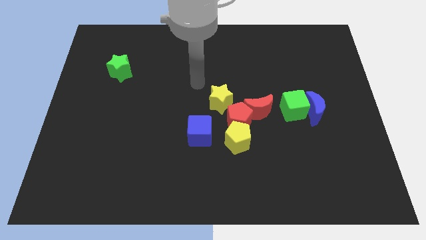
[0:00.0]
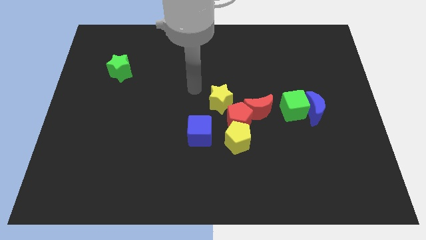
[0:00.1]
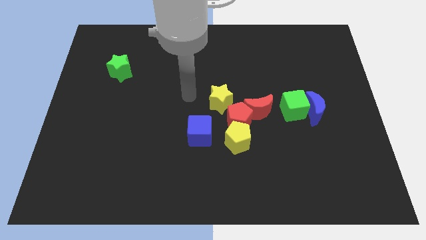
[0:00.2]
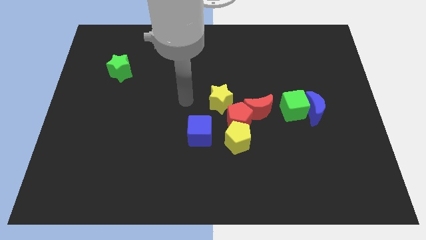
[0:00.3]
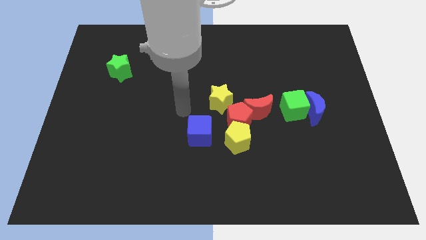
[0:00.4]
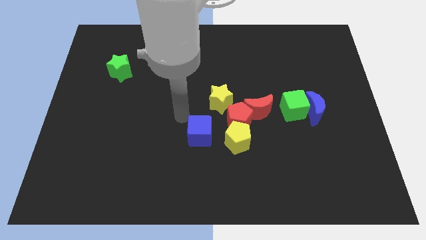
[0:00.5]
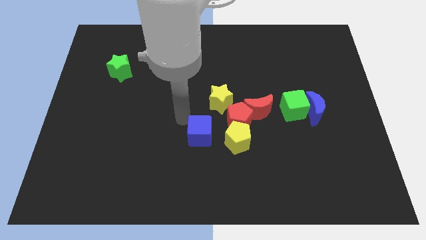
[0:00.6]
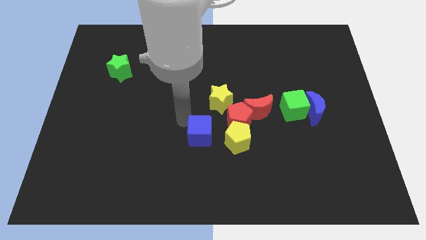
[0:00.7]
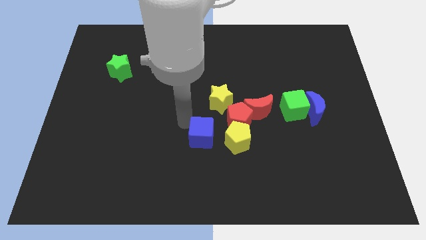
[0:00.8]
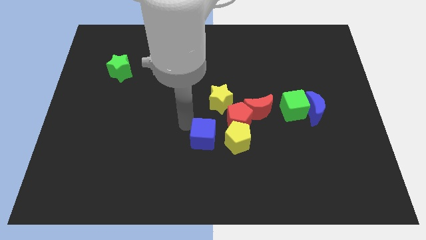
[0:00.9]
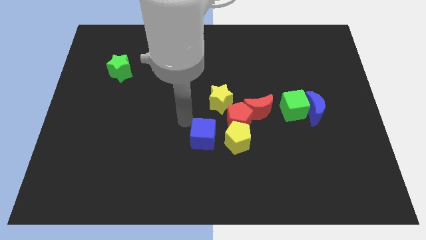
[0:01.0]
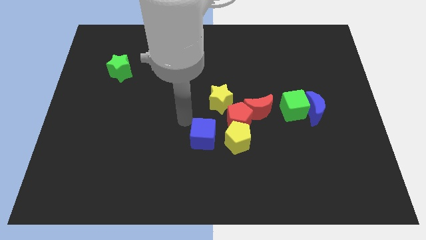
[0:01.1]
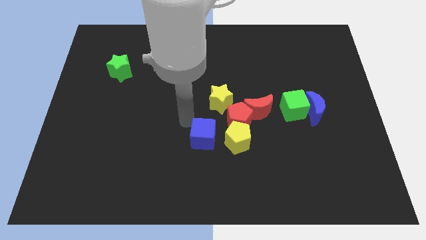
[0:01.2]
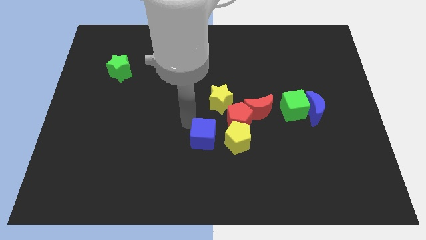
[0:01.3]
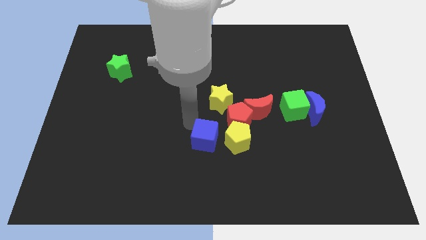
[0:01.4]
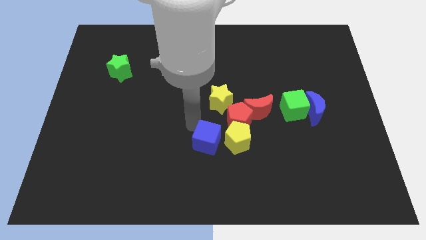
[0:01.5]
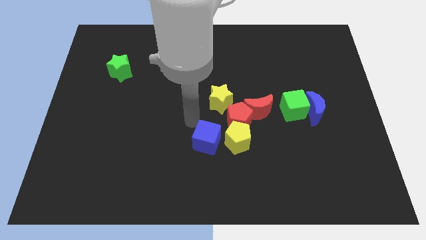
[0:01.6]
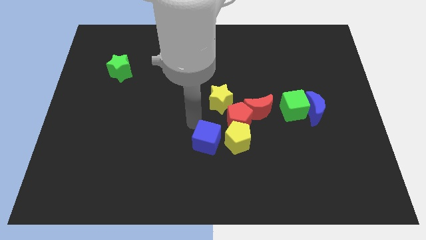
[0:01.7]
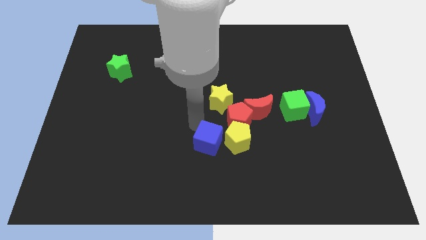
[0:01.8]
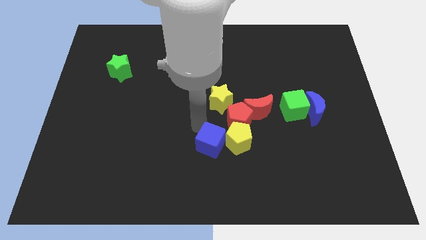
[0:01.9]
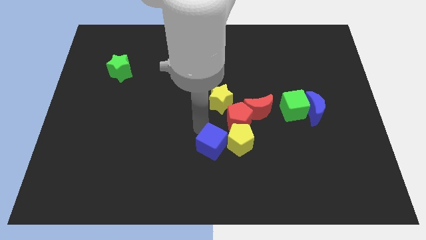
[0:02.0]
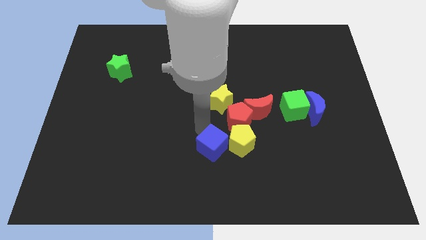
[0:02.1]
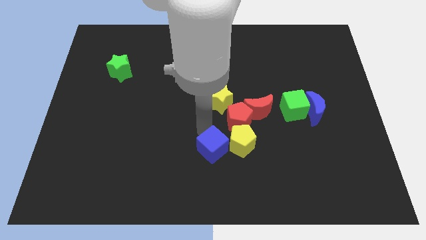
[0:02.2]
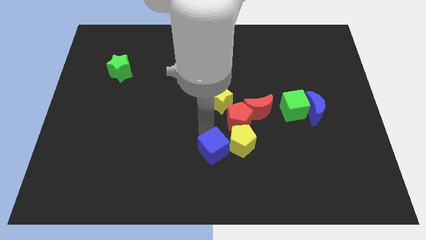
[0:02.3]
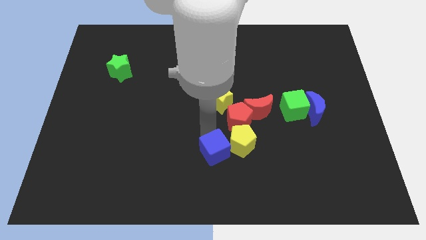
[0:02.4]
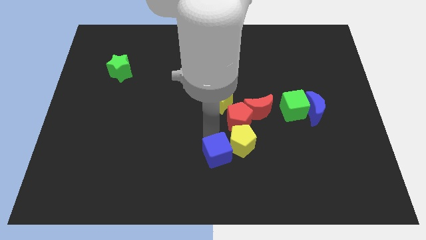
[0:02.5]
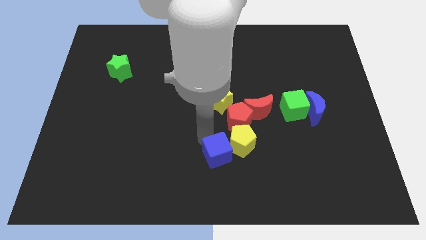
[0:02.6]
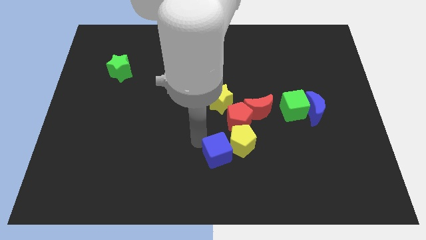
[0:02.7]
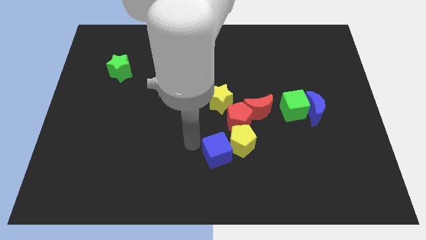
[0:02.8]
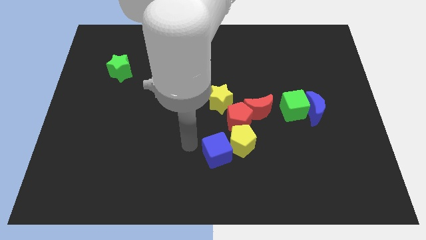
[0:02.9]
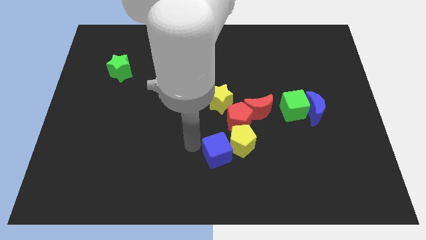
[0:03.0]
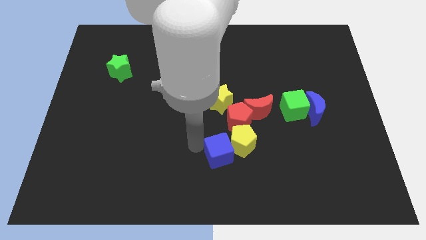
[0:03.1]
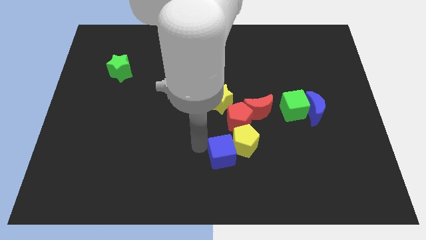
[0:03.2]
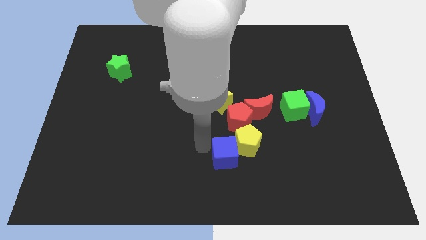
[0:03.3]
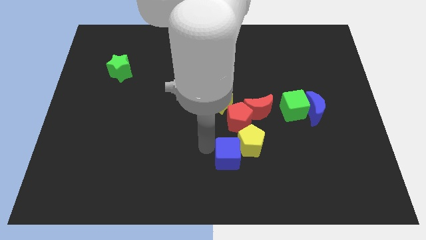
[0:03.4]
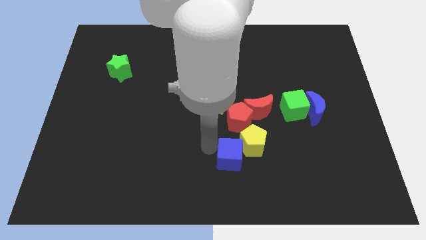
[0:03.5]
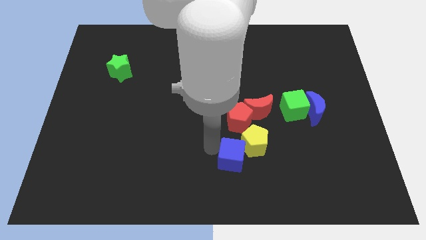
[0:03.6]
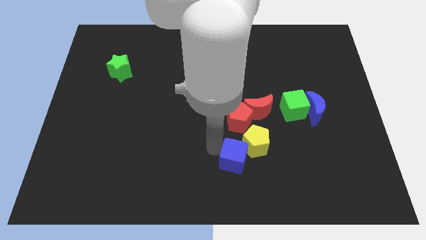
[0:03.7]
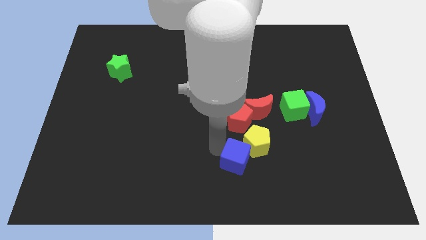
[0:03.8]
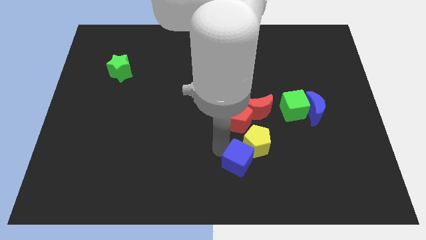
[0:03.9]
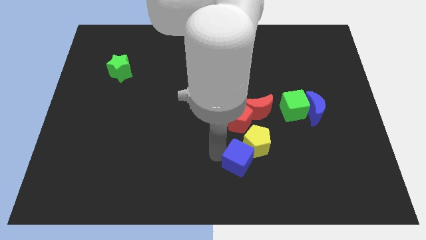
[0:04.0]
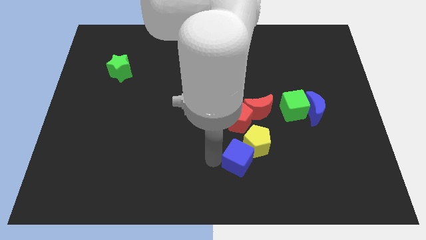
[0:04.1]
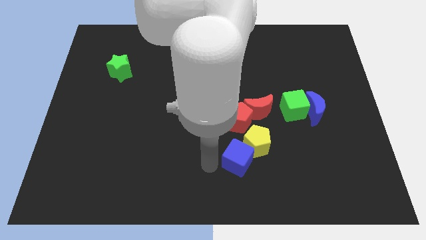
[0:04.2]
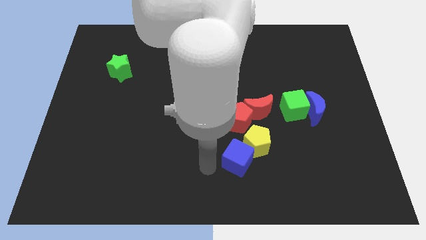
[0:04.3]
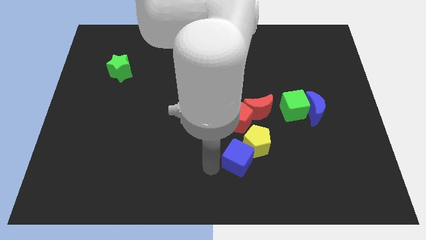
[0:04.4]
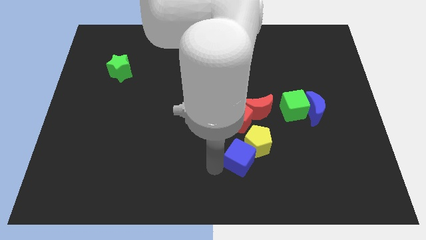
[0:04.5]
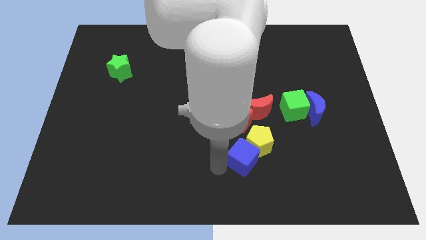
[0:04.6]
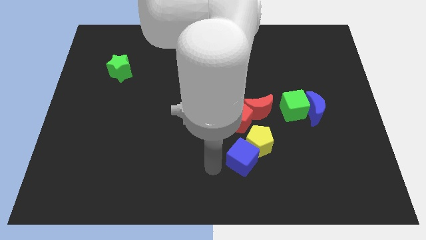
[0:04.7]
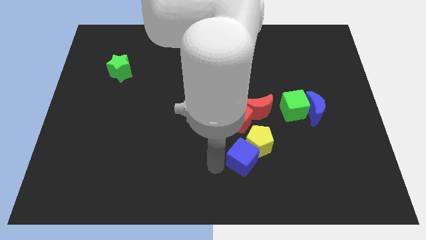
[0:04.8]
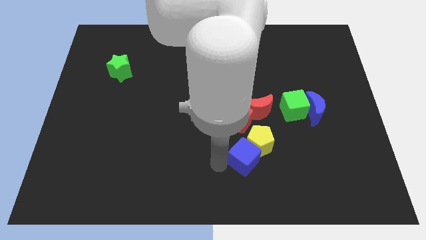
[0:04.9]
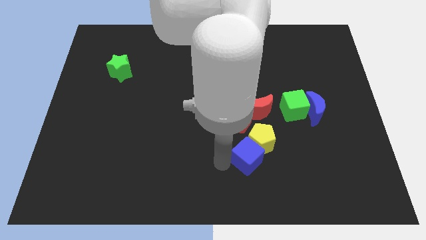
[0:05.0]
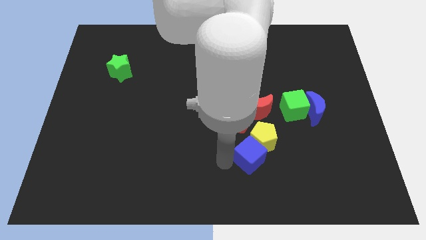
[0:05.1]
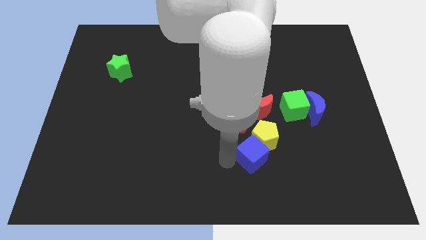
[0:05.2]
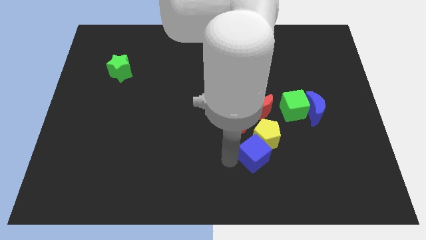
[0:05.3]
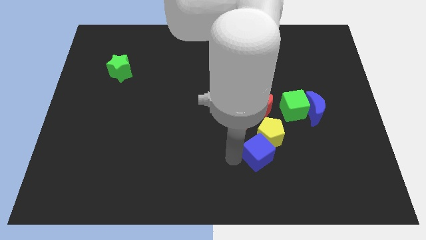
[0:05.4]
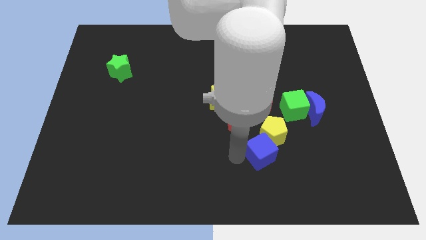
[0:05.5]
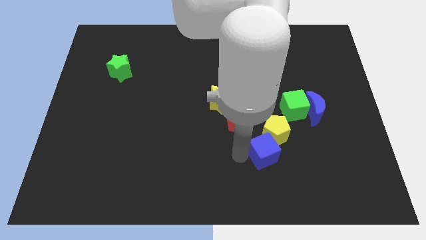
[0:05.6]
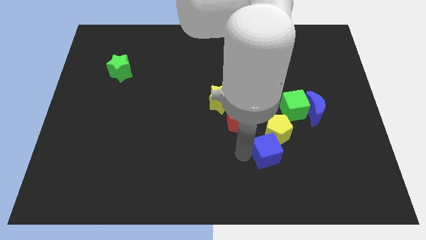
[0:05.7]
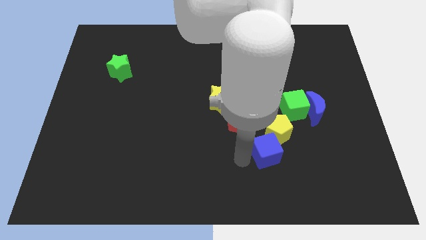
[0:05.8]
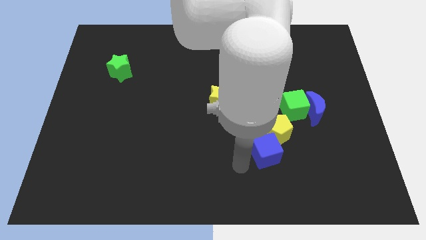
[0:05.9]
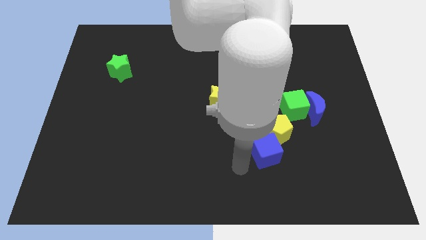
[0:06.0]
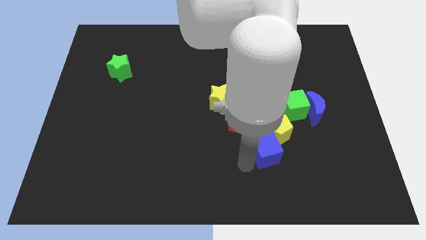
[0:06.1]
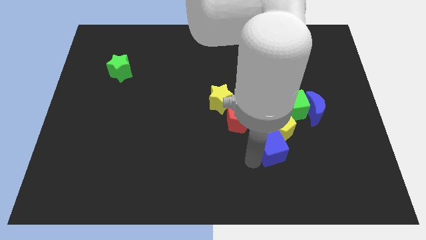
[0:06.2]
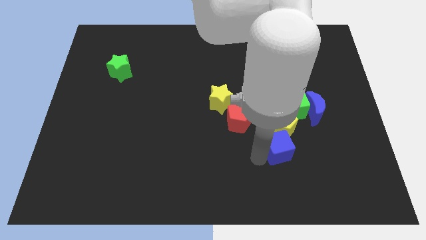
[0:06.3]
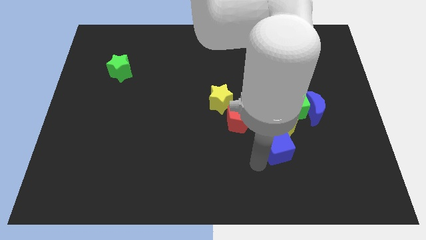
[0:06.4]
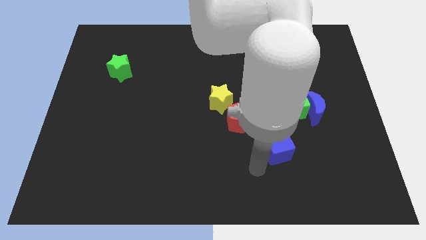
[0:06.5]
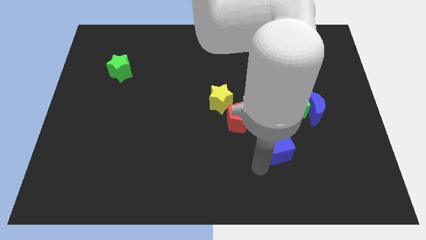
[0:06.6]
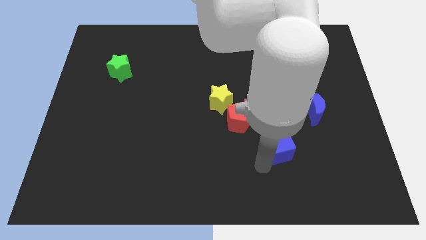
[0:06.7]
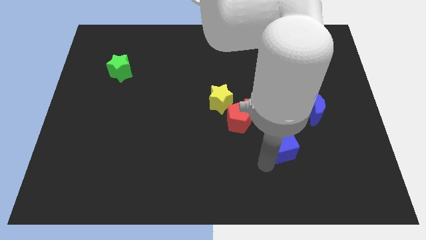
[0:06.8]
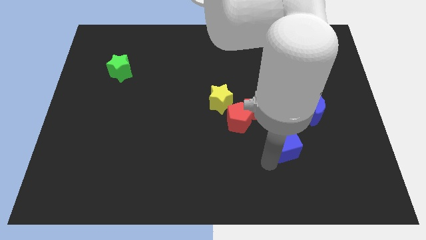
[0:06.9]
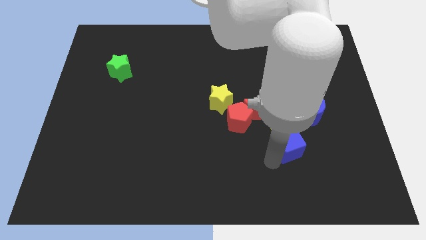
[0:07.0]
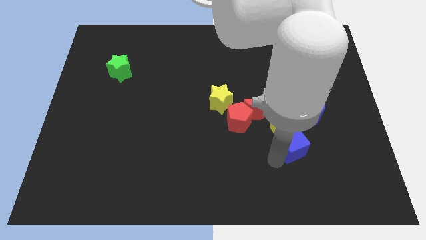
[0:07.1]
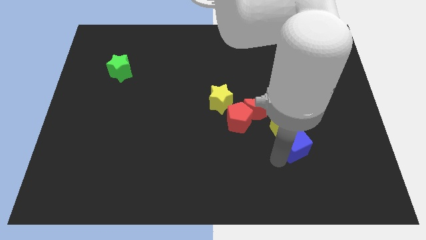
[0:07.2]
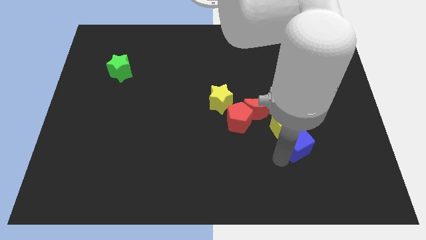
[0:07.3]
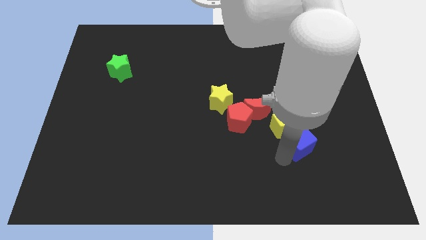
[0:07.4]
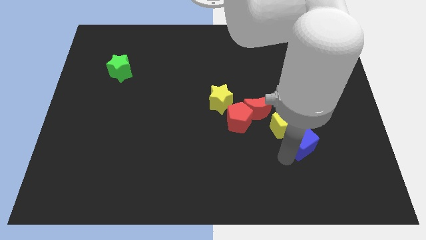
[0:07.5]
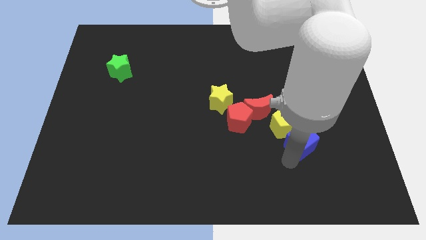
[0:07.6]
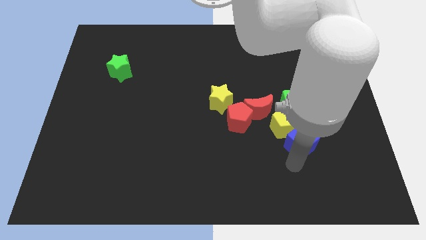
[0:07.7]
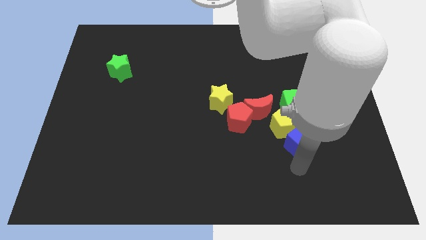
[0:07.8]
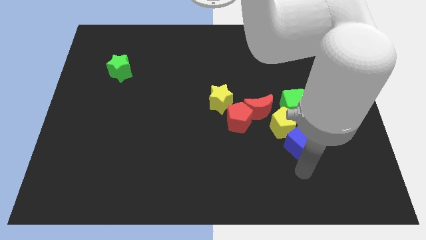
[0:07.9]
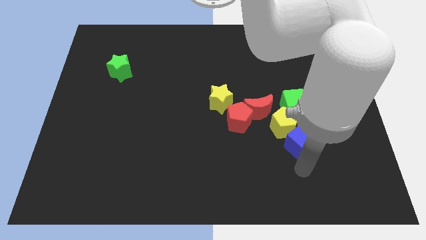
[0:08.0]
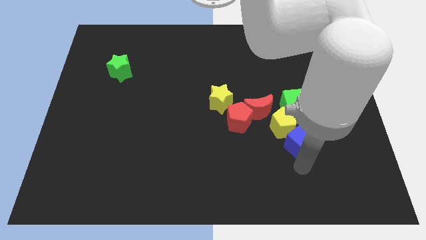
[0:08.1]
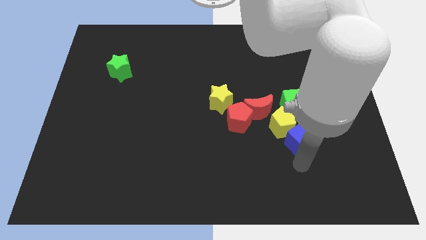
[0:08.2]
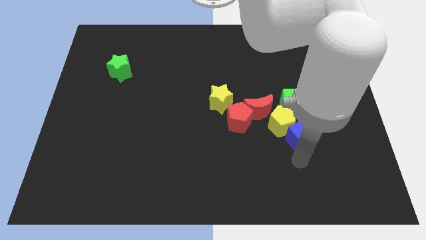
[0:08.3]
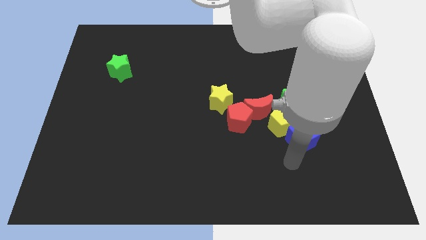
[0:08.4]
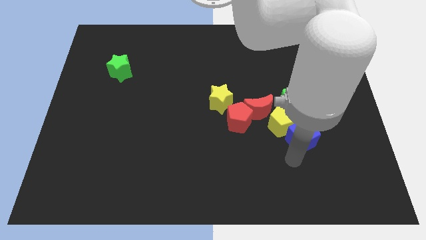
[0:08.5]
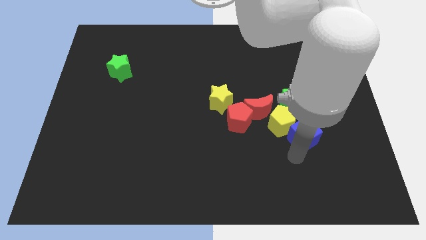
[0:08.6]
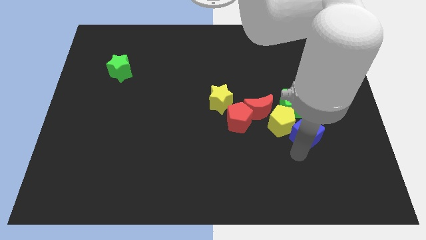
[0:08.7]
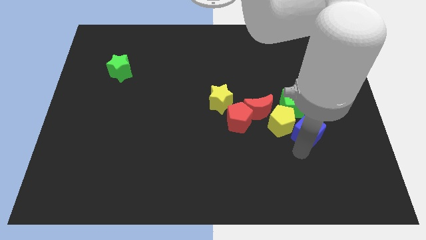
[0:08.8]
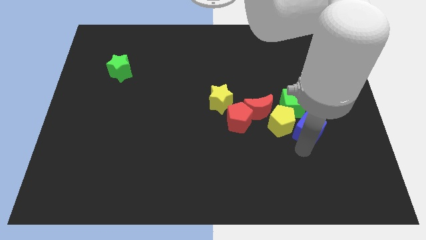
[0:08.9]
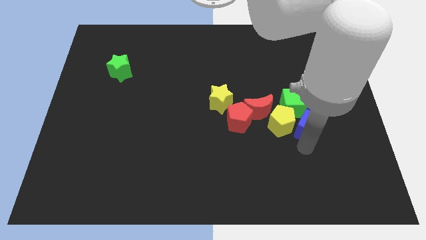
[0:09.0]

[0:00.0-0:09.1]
put the blue cube towards the blue moon
